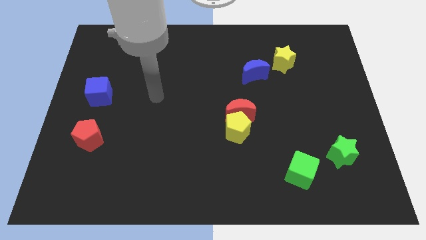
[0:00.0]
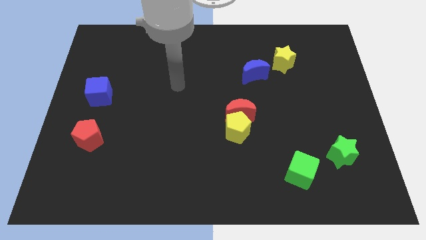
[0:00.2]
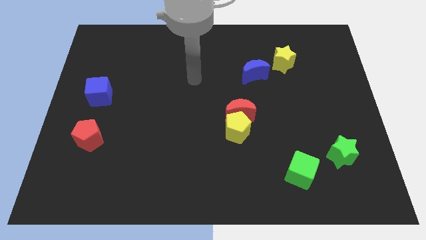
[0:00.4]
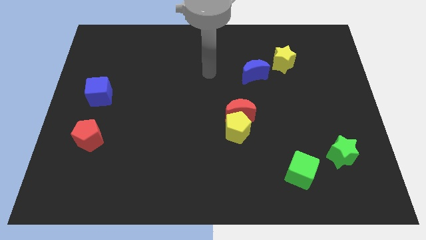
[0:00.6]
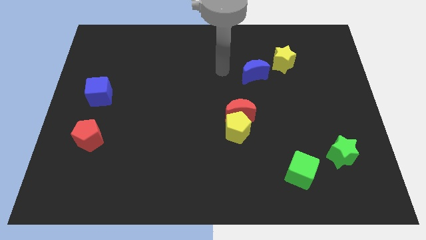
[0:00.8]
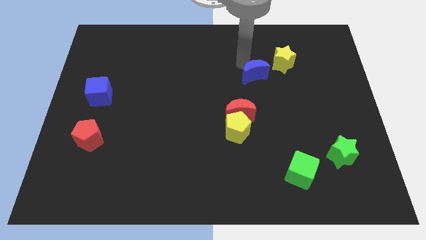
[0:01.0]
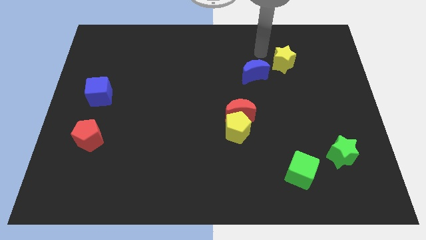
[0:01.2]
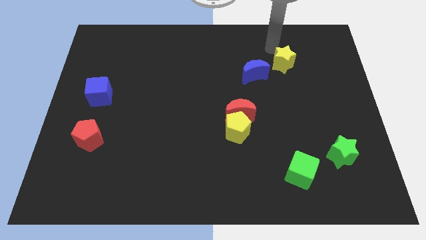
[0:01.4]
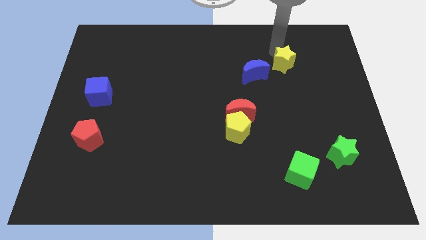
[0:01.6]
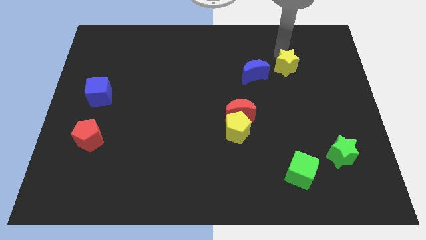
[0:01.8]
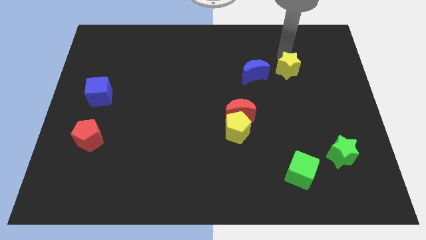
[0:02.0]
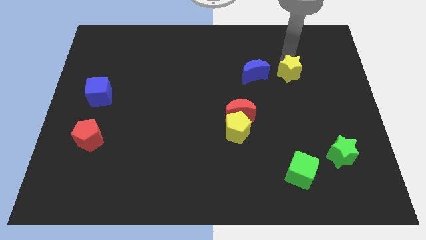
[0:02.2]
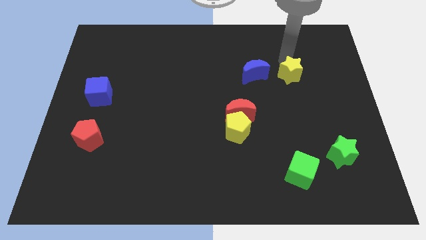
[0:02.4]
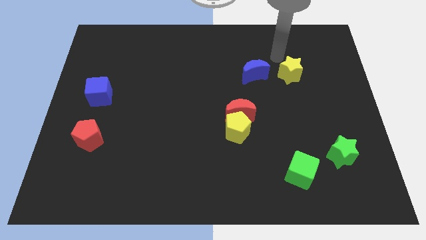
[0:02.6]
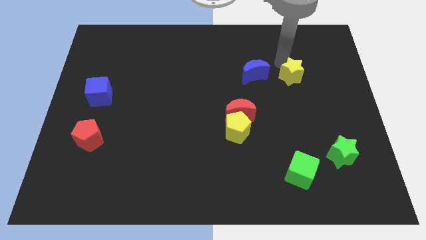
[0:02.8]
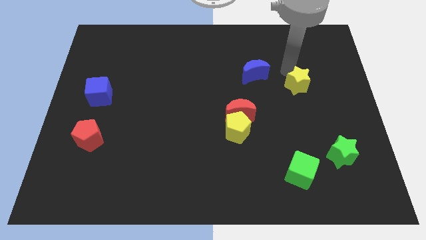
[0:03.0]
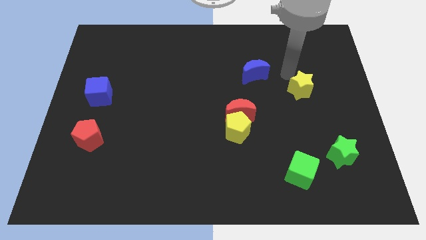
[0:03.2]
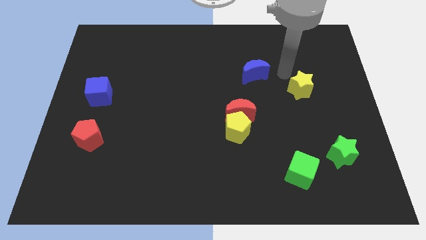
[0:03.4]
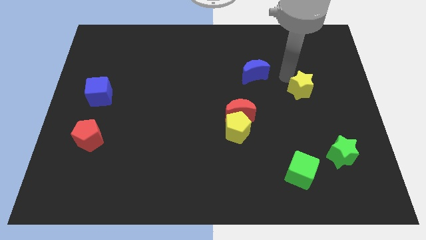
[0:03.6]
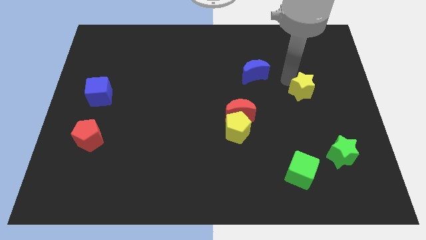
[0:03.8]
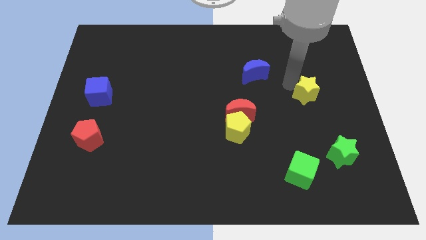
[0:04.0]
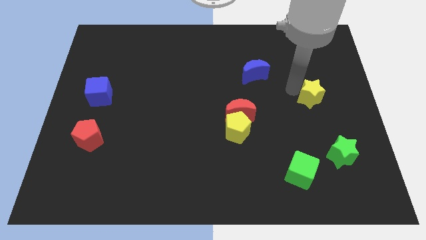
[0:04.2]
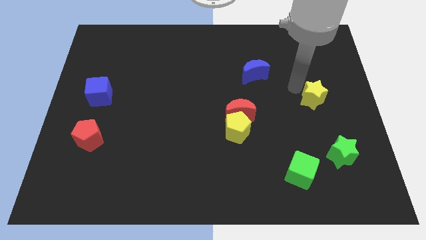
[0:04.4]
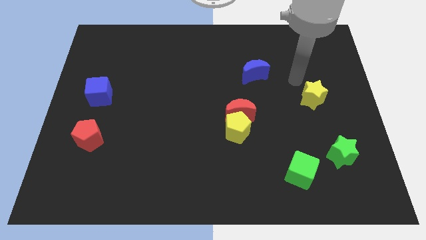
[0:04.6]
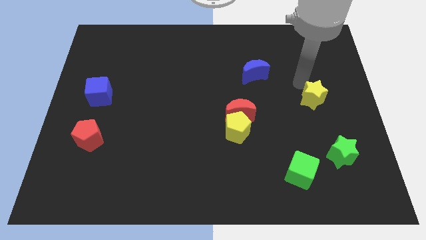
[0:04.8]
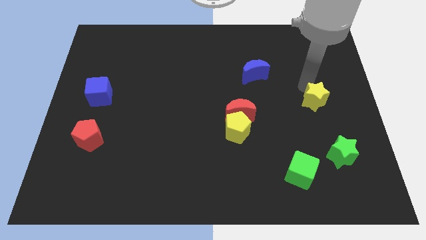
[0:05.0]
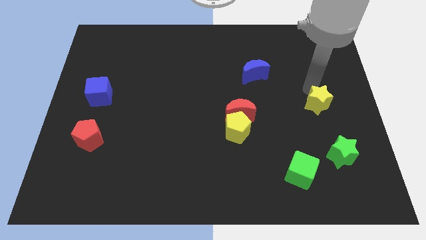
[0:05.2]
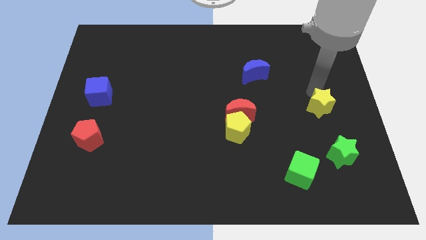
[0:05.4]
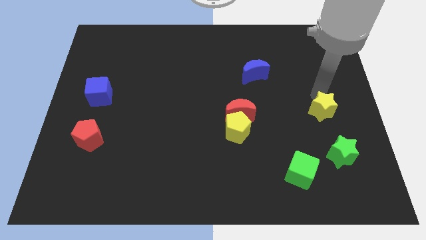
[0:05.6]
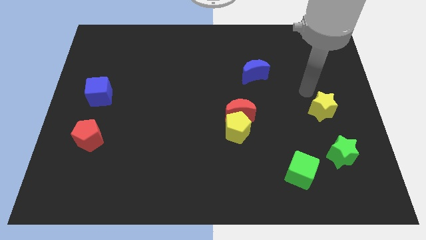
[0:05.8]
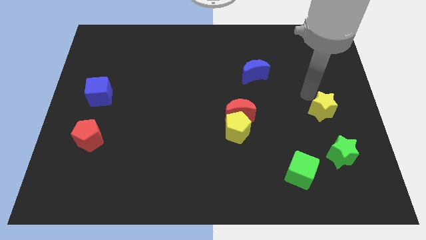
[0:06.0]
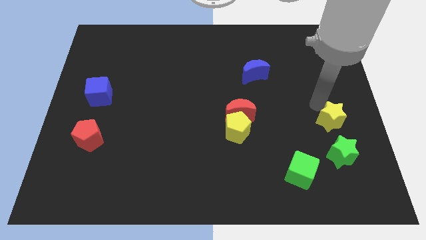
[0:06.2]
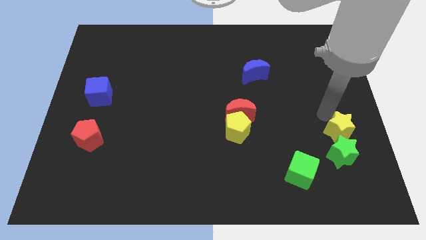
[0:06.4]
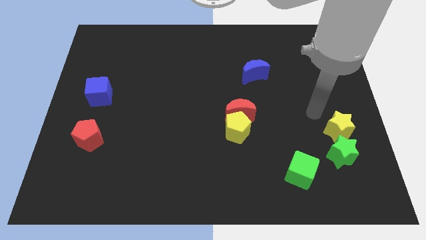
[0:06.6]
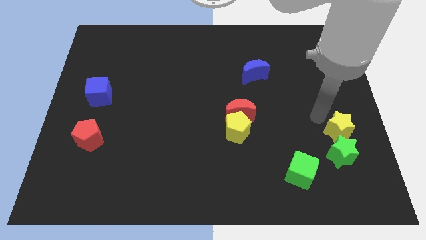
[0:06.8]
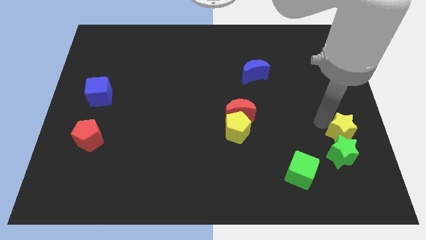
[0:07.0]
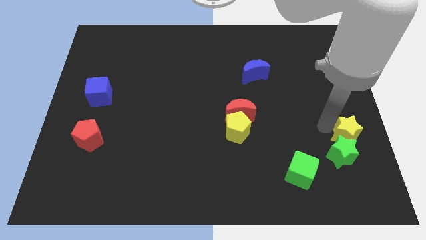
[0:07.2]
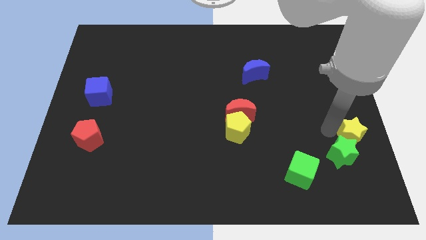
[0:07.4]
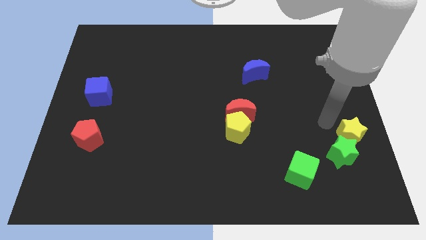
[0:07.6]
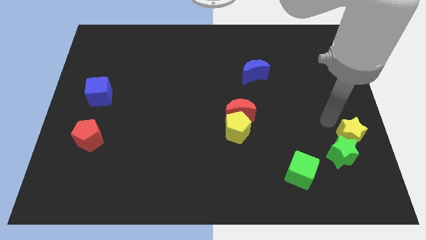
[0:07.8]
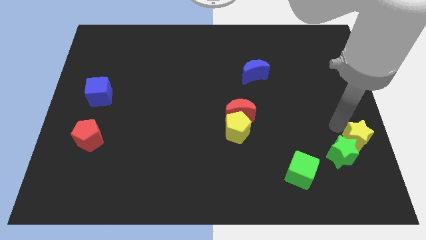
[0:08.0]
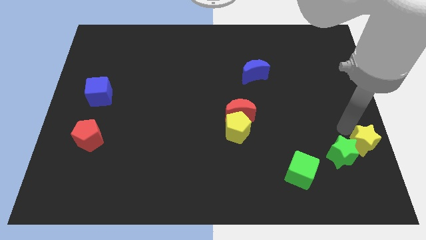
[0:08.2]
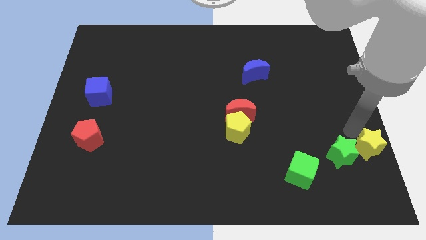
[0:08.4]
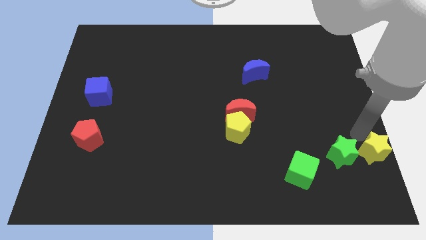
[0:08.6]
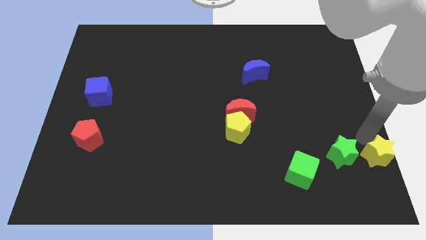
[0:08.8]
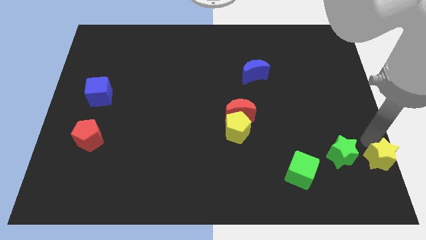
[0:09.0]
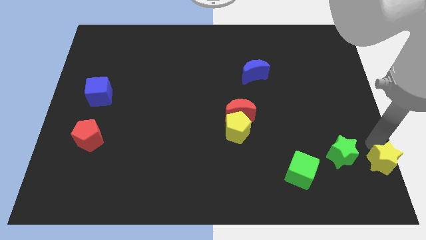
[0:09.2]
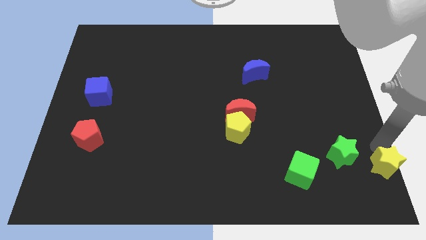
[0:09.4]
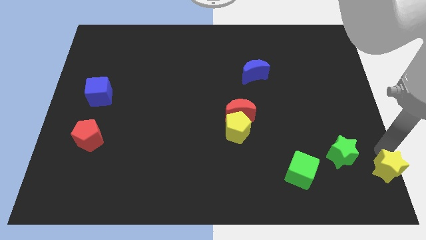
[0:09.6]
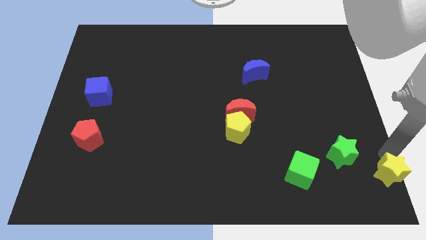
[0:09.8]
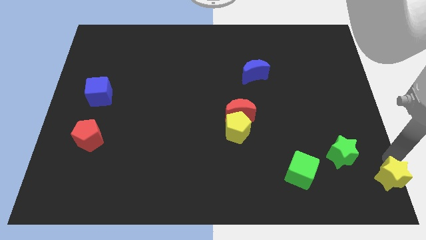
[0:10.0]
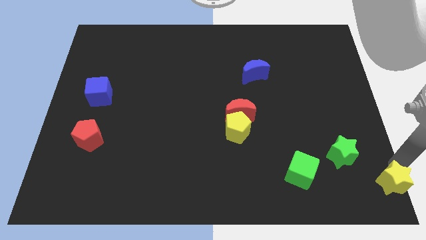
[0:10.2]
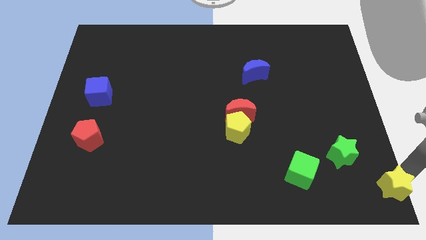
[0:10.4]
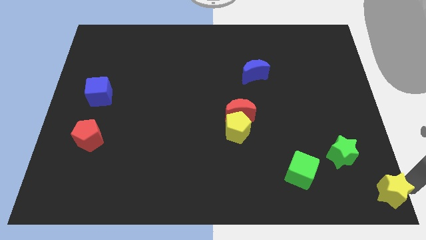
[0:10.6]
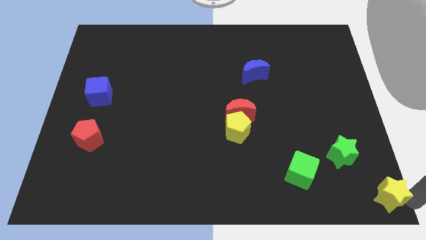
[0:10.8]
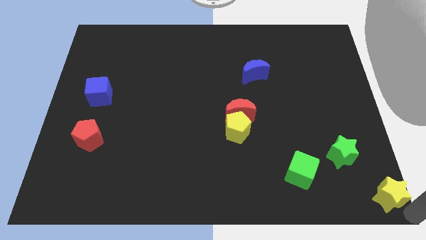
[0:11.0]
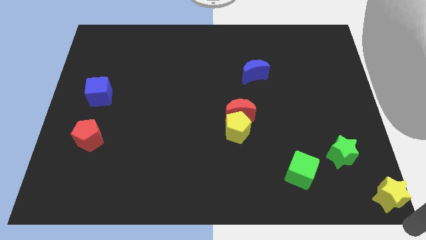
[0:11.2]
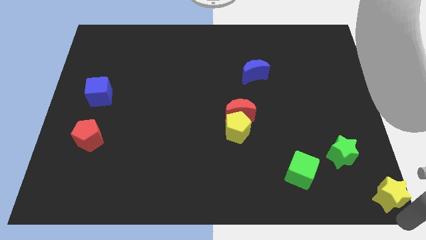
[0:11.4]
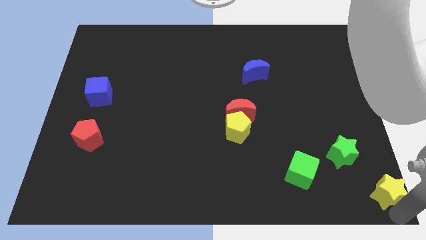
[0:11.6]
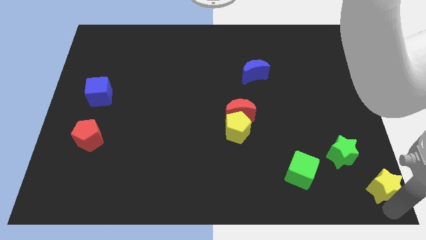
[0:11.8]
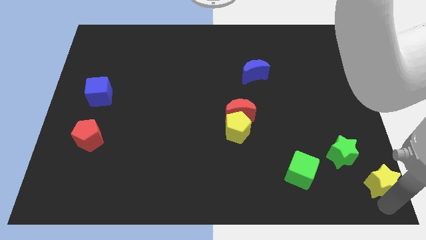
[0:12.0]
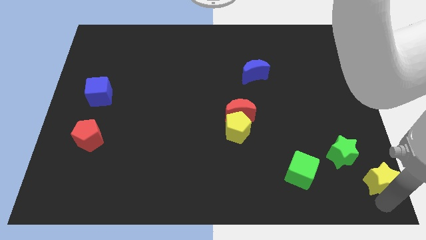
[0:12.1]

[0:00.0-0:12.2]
slide the yellow star just right of the green cube
